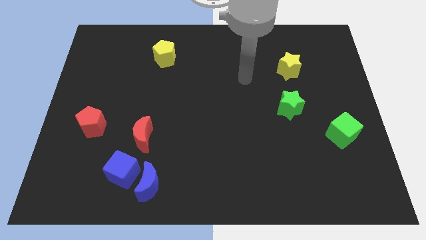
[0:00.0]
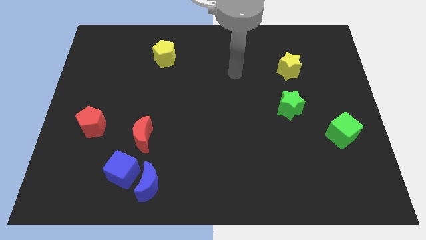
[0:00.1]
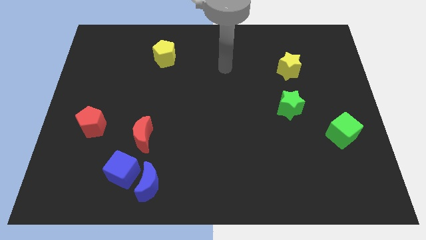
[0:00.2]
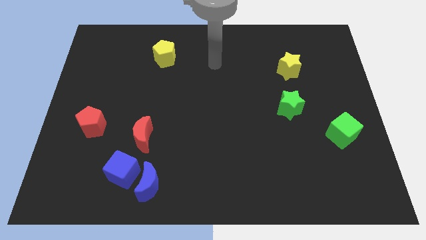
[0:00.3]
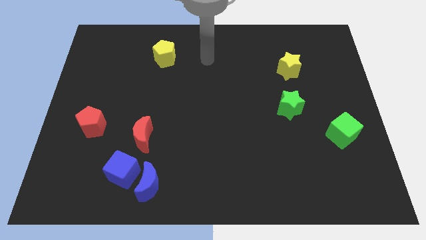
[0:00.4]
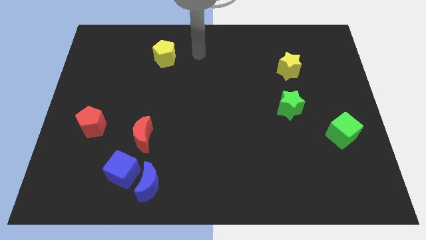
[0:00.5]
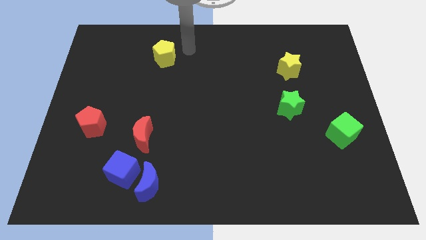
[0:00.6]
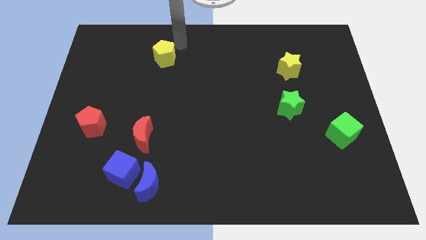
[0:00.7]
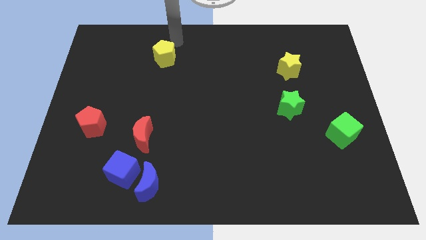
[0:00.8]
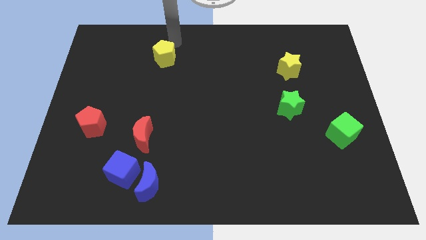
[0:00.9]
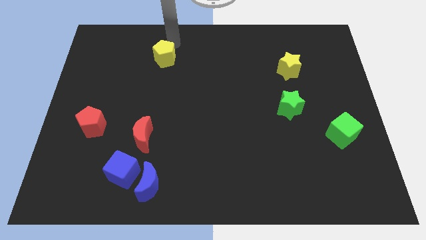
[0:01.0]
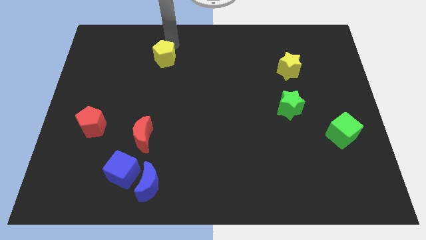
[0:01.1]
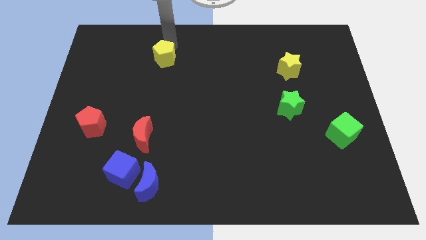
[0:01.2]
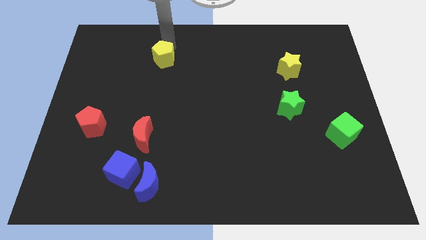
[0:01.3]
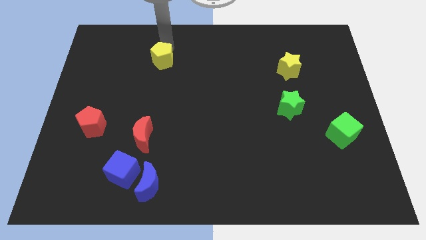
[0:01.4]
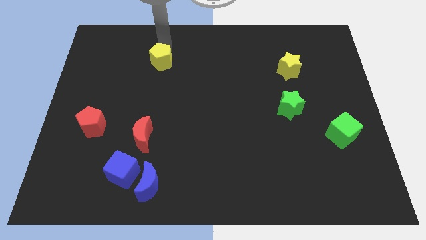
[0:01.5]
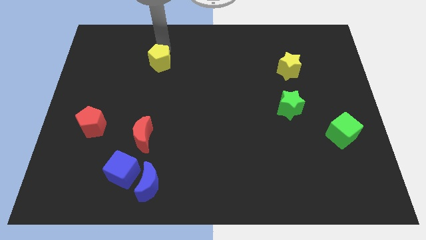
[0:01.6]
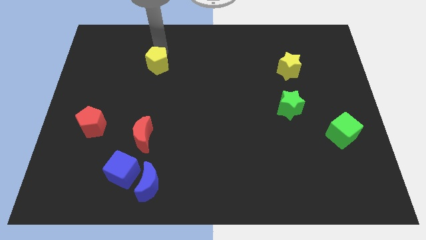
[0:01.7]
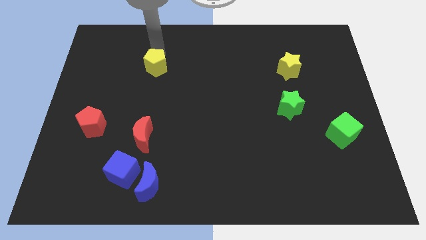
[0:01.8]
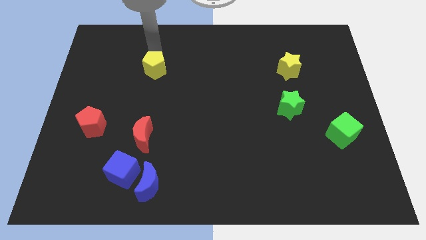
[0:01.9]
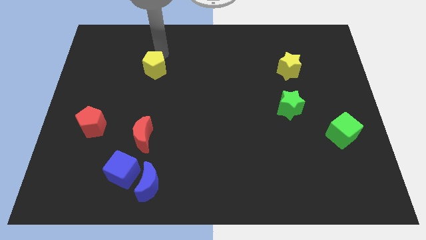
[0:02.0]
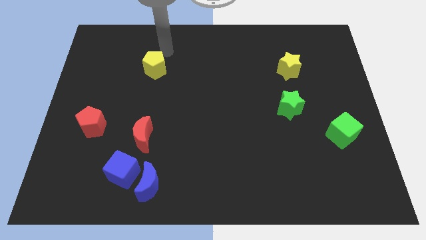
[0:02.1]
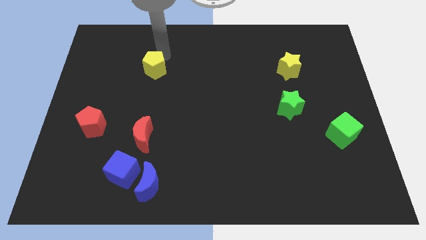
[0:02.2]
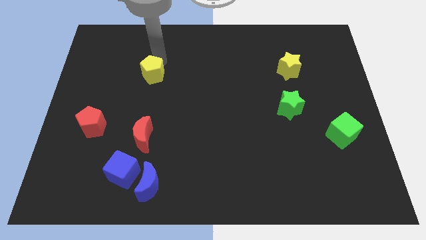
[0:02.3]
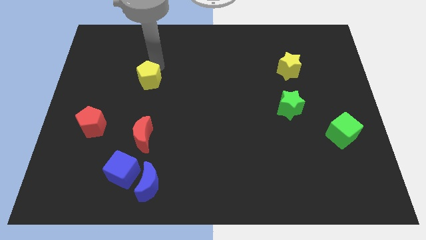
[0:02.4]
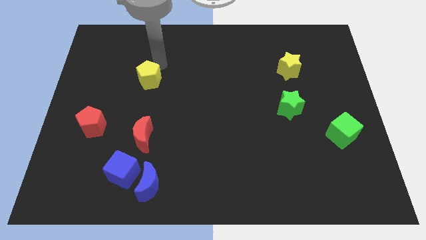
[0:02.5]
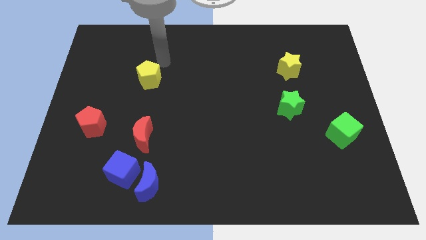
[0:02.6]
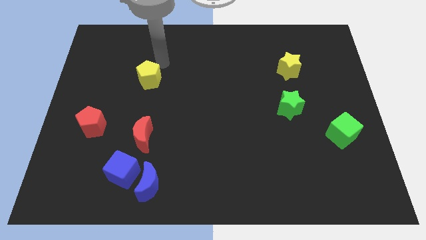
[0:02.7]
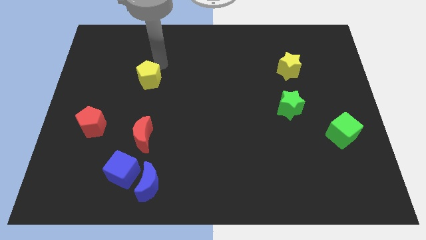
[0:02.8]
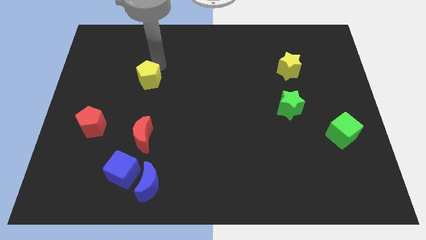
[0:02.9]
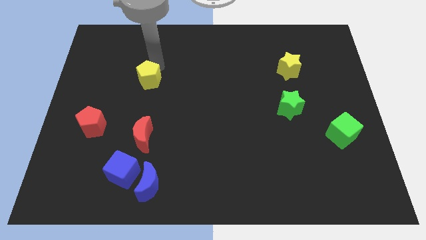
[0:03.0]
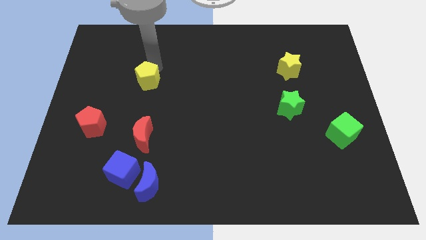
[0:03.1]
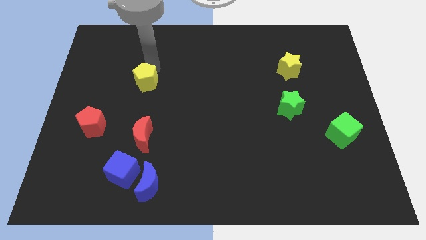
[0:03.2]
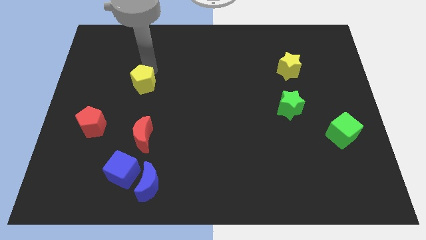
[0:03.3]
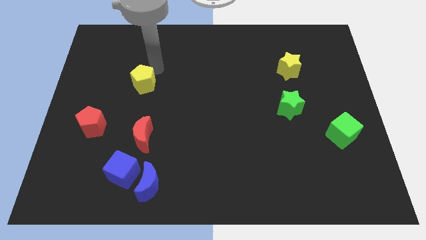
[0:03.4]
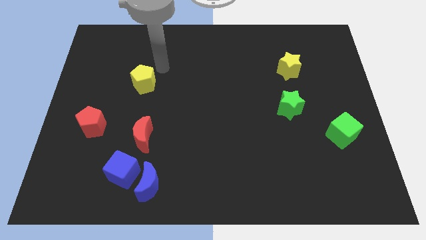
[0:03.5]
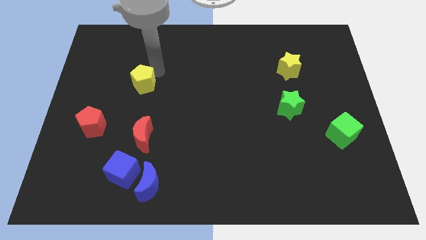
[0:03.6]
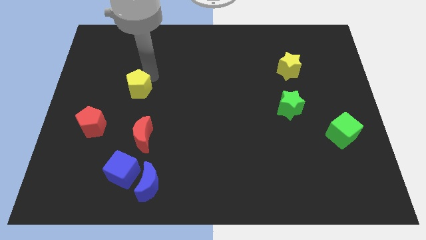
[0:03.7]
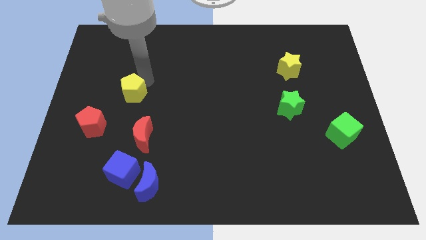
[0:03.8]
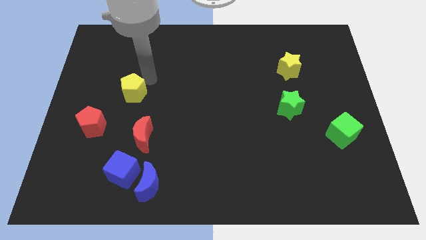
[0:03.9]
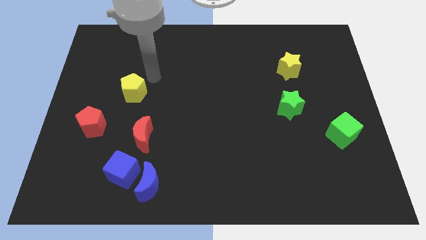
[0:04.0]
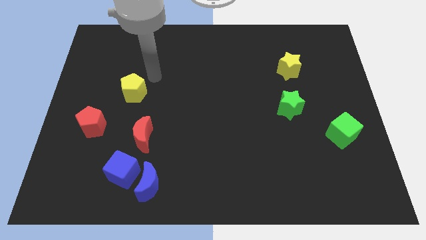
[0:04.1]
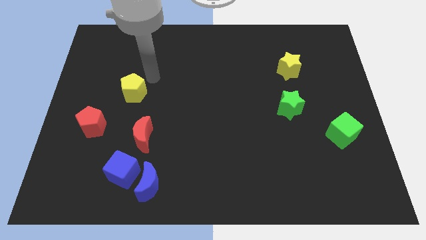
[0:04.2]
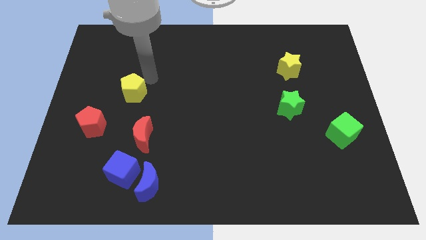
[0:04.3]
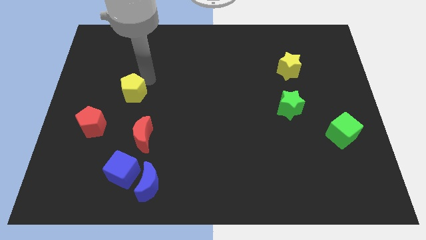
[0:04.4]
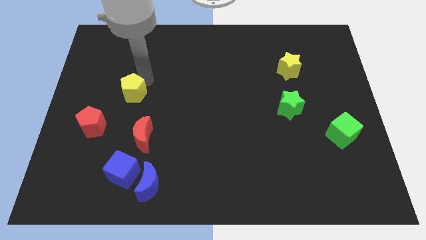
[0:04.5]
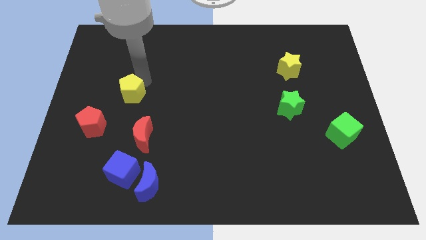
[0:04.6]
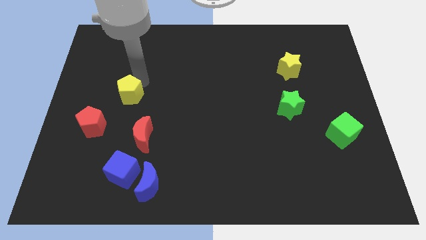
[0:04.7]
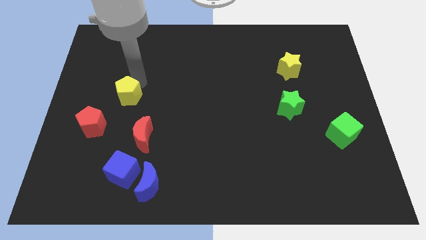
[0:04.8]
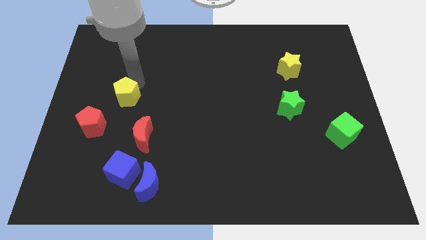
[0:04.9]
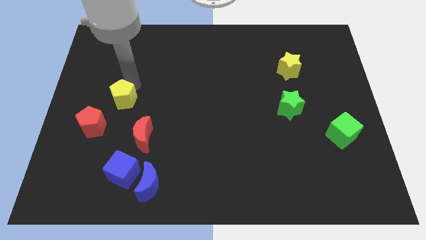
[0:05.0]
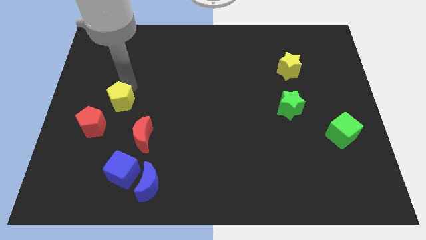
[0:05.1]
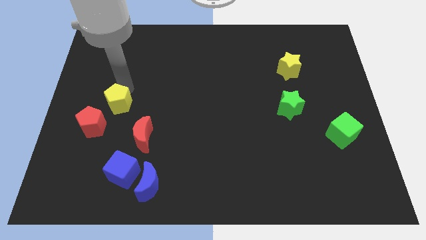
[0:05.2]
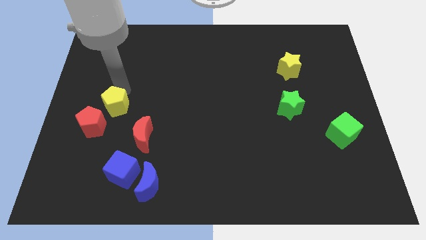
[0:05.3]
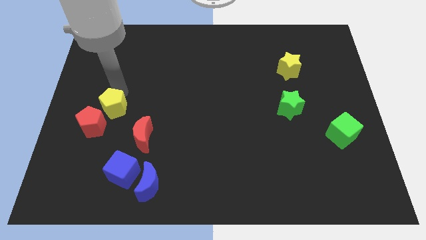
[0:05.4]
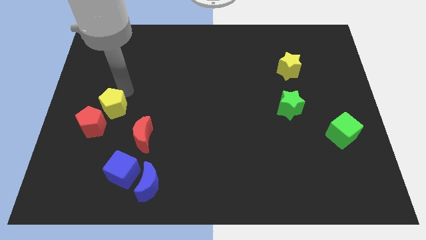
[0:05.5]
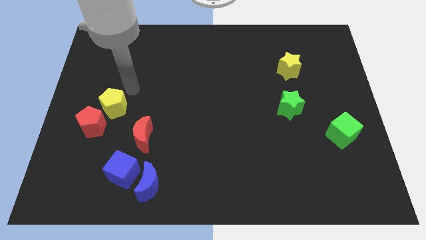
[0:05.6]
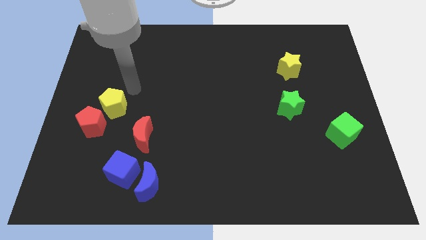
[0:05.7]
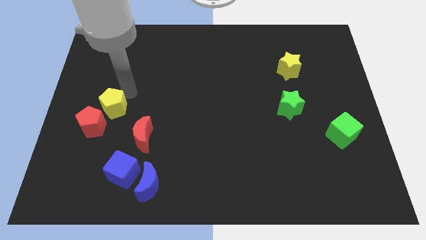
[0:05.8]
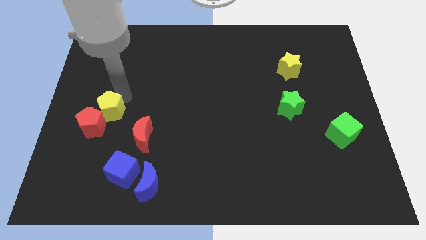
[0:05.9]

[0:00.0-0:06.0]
move the yellow pentagon close to the red pentagon

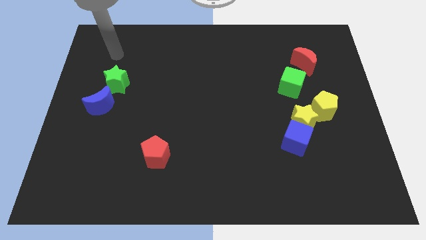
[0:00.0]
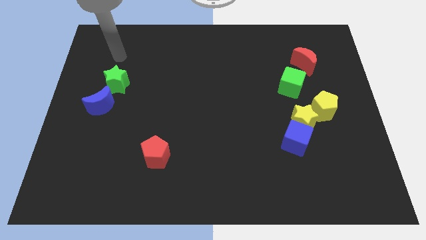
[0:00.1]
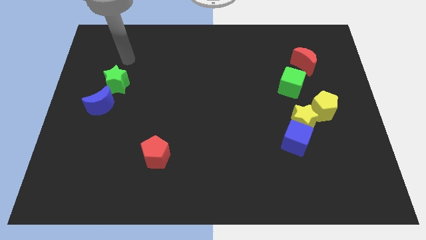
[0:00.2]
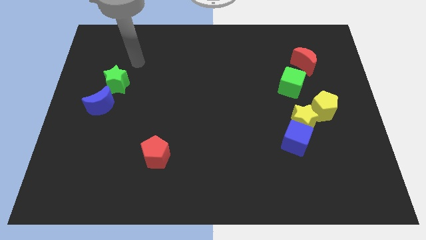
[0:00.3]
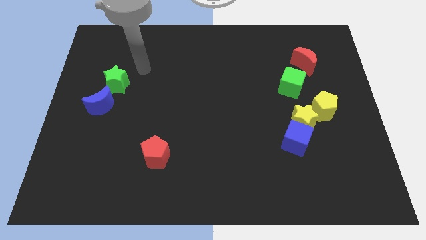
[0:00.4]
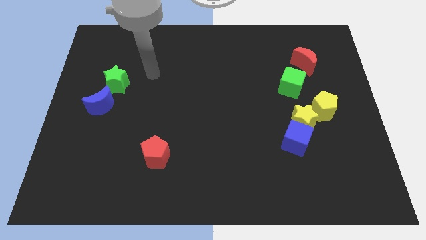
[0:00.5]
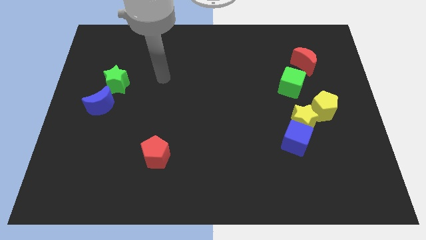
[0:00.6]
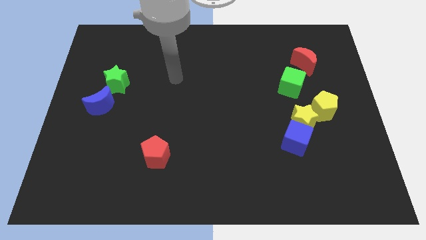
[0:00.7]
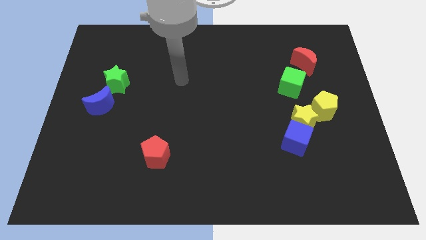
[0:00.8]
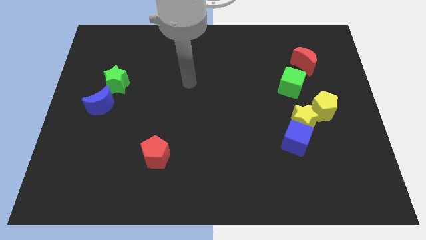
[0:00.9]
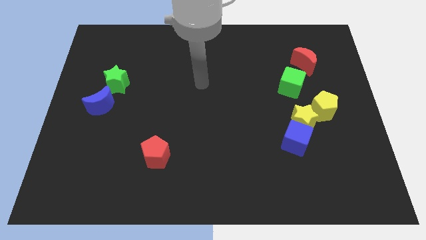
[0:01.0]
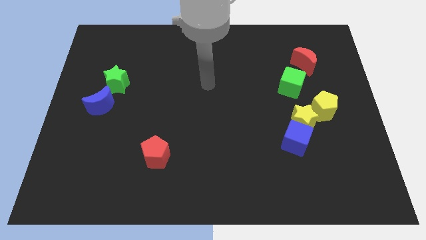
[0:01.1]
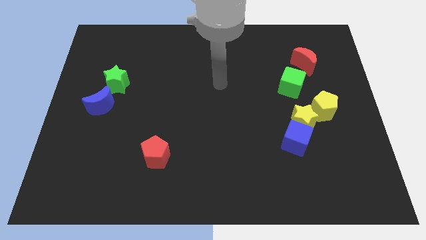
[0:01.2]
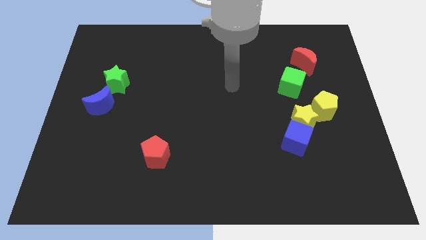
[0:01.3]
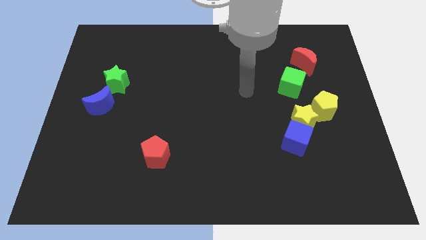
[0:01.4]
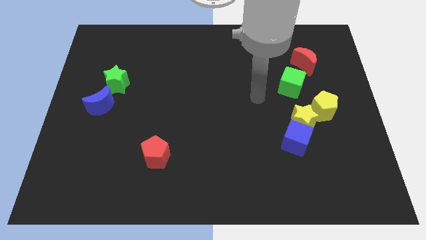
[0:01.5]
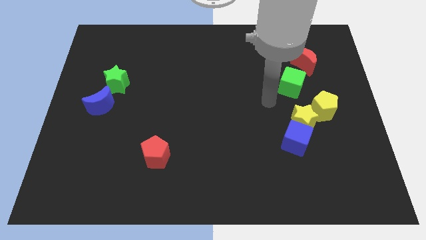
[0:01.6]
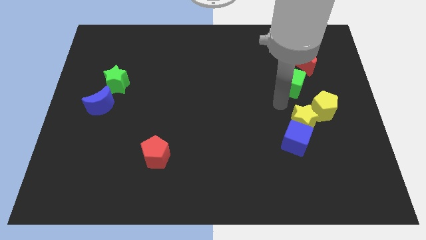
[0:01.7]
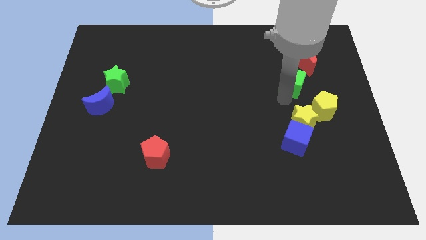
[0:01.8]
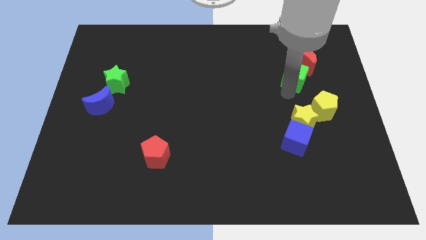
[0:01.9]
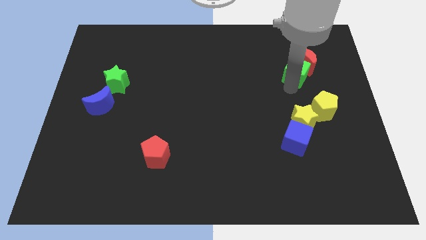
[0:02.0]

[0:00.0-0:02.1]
push the green cube next to the red moon
